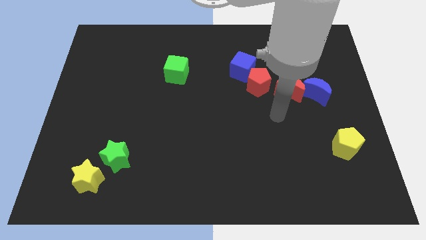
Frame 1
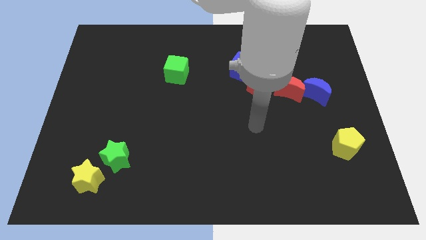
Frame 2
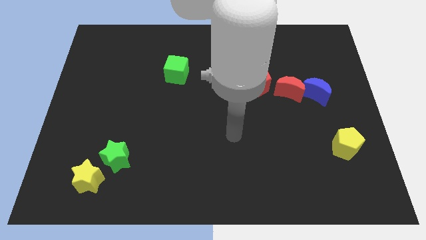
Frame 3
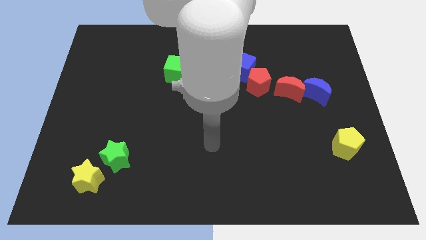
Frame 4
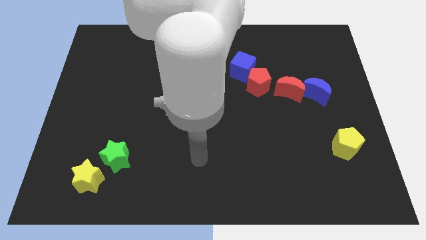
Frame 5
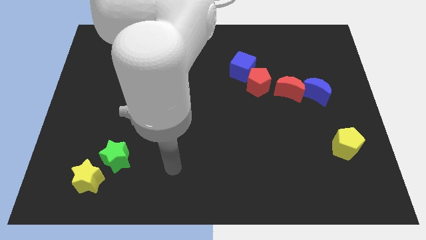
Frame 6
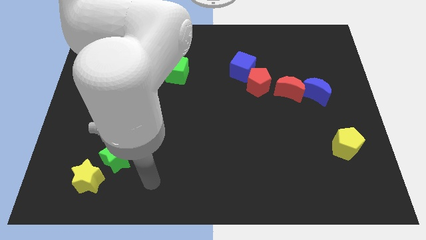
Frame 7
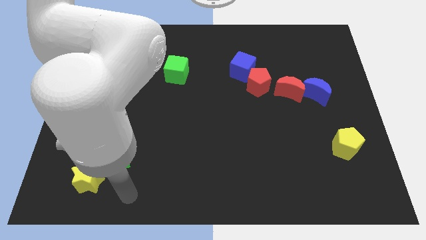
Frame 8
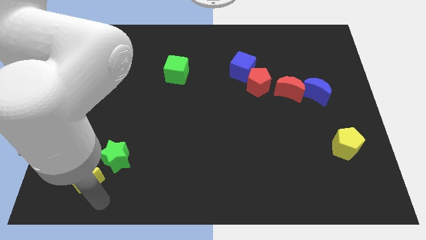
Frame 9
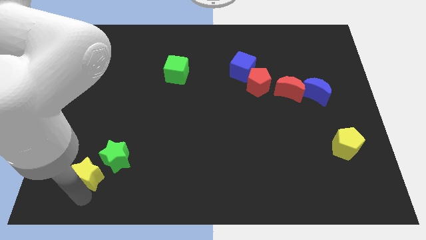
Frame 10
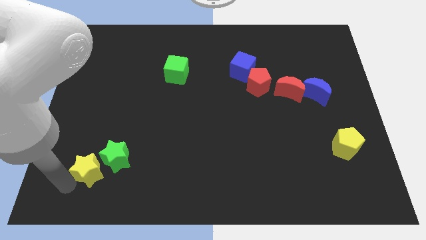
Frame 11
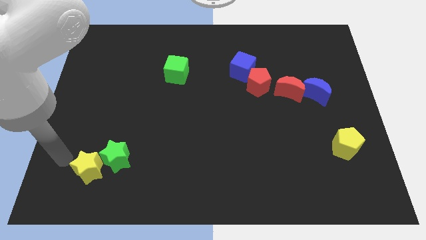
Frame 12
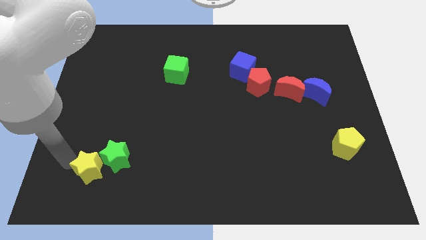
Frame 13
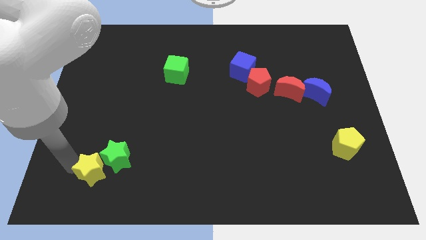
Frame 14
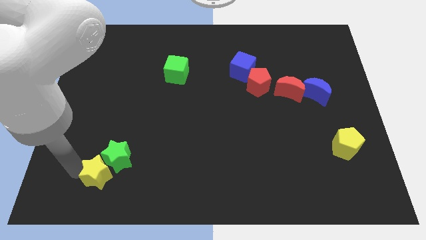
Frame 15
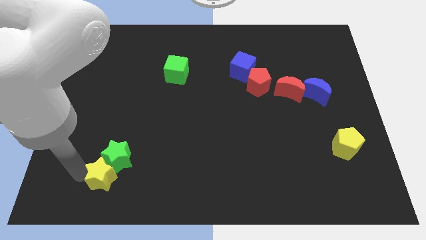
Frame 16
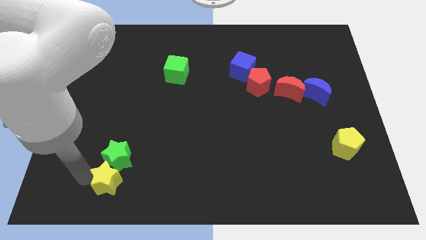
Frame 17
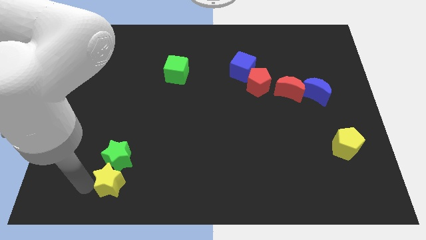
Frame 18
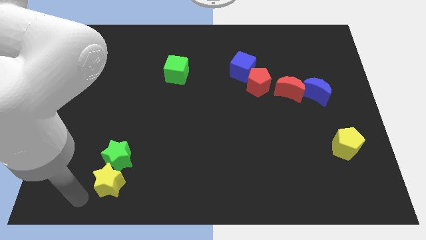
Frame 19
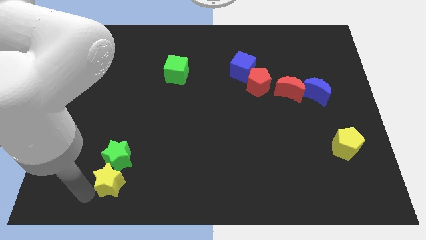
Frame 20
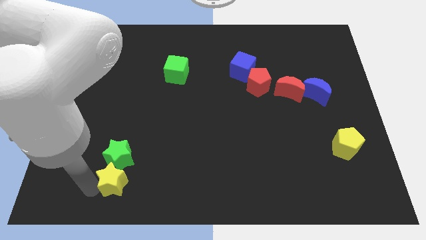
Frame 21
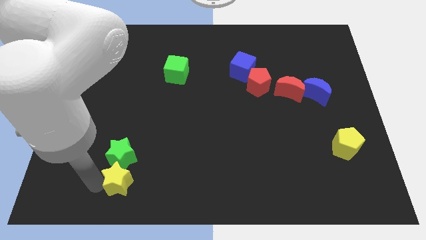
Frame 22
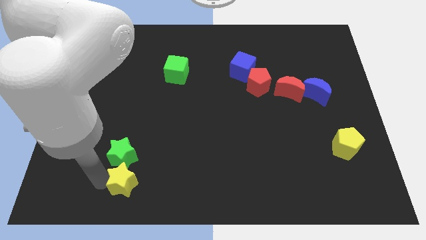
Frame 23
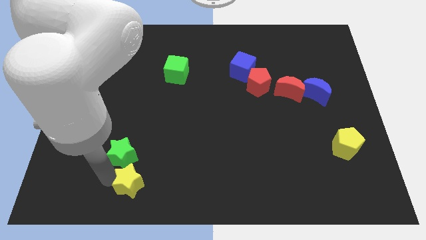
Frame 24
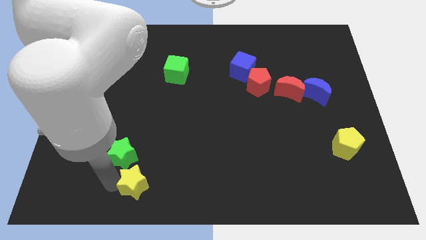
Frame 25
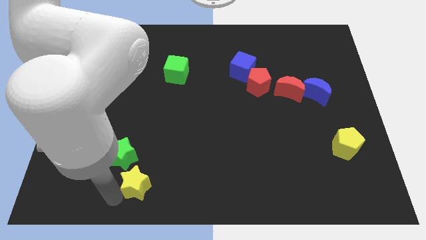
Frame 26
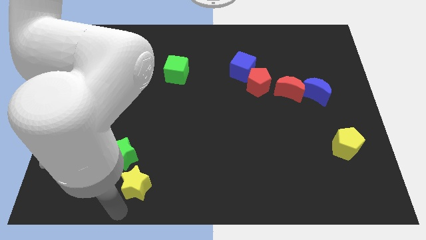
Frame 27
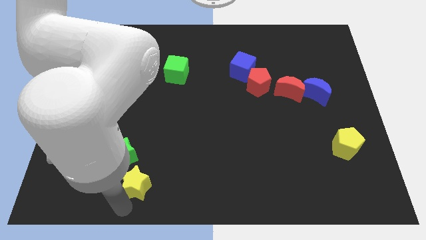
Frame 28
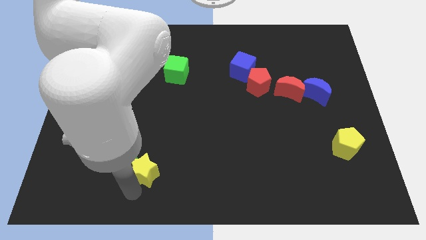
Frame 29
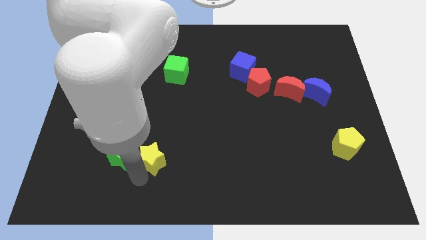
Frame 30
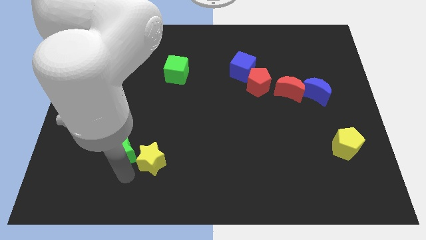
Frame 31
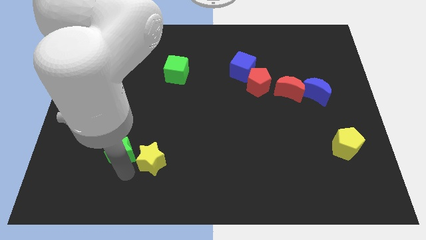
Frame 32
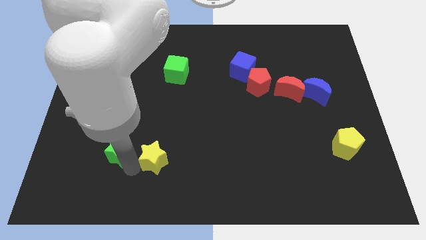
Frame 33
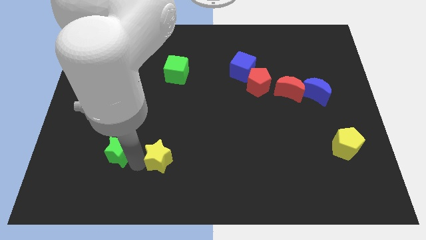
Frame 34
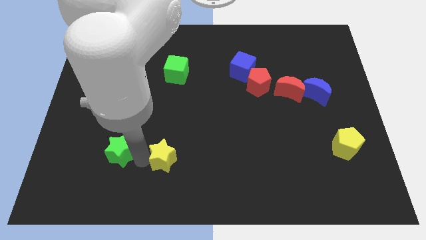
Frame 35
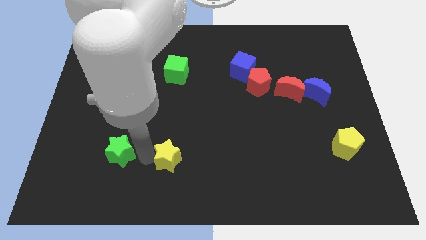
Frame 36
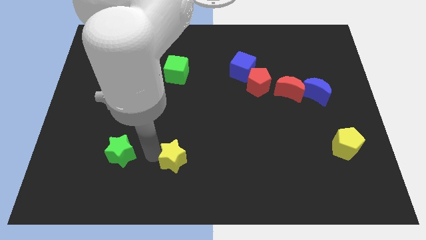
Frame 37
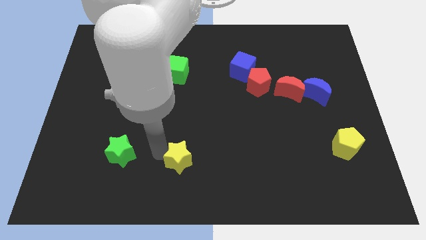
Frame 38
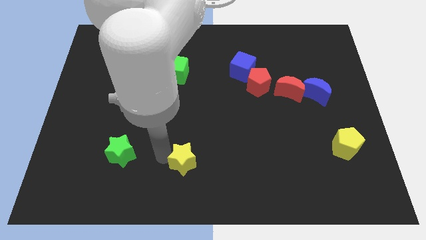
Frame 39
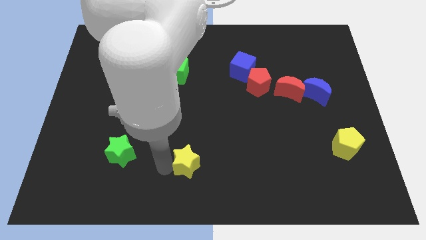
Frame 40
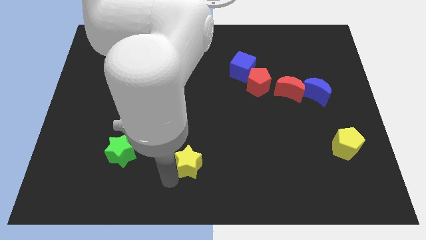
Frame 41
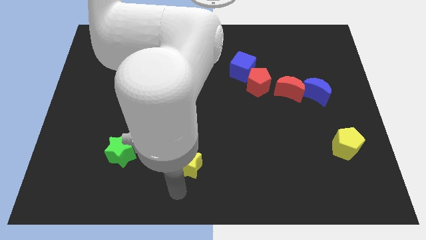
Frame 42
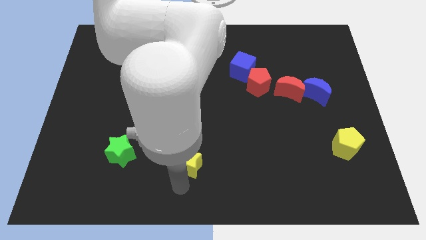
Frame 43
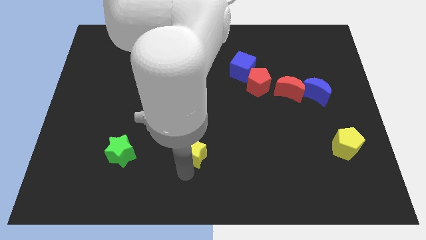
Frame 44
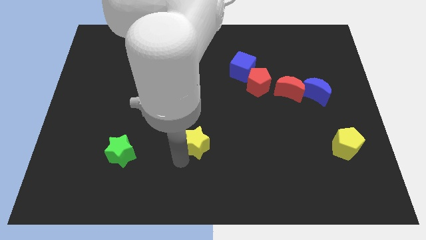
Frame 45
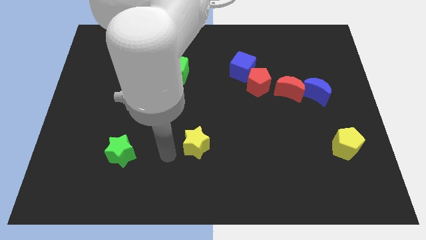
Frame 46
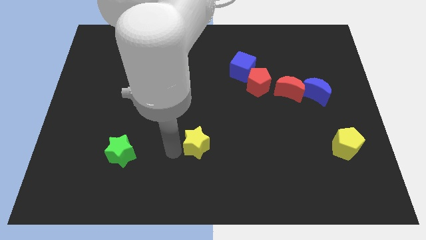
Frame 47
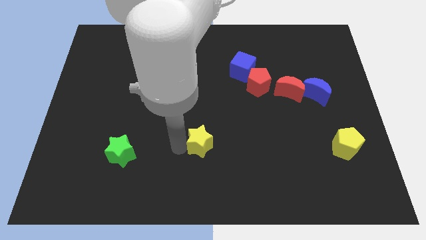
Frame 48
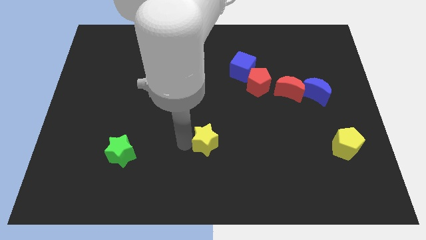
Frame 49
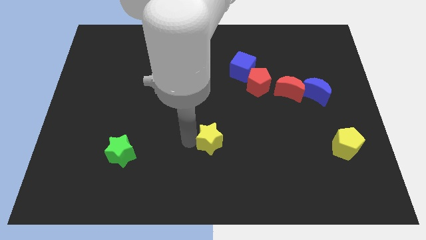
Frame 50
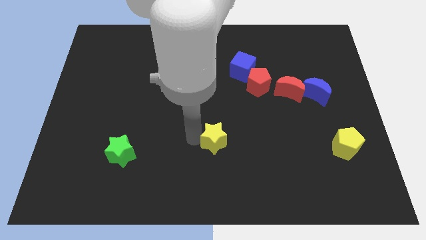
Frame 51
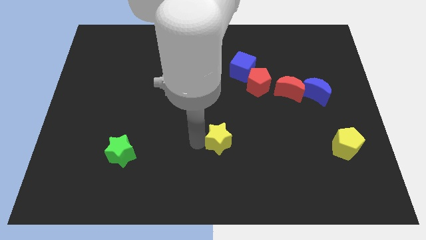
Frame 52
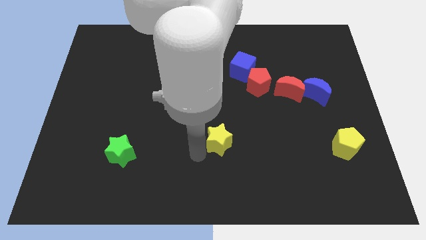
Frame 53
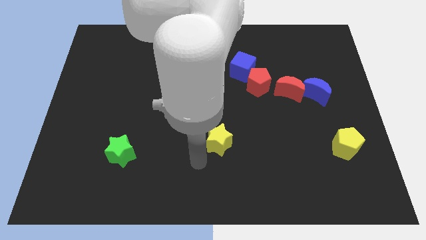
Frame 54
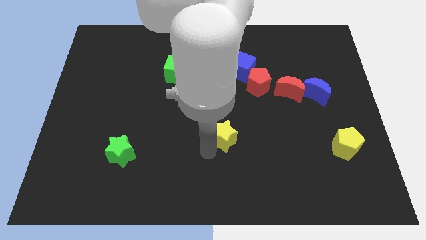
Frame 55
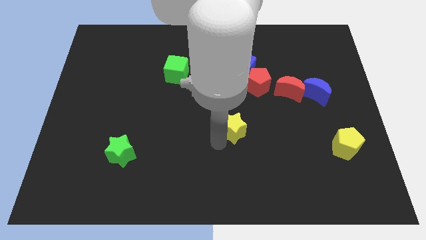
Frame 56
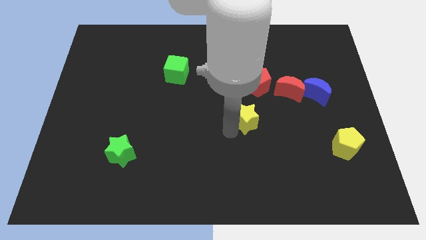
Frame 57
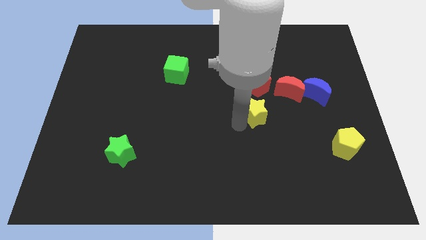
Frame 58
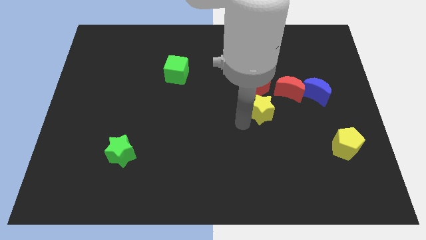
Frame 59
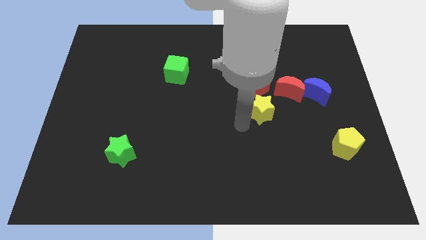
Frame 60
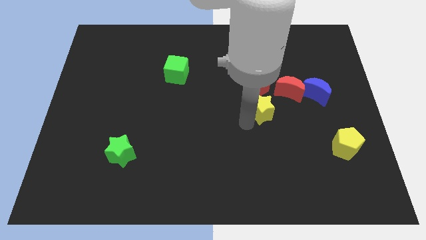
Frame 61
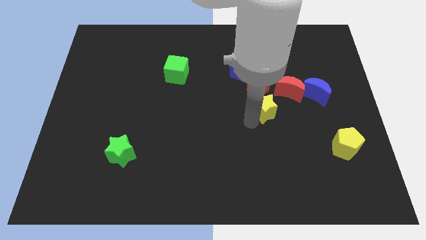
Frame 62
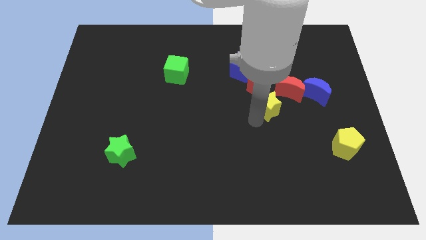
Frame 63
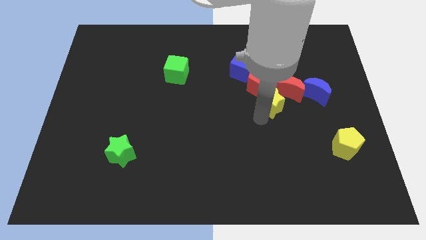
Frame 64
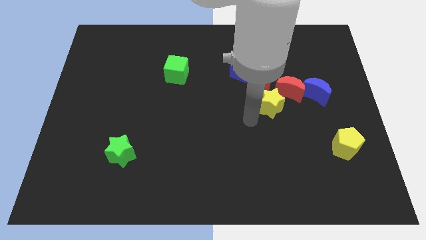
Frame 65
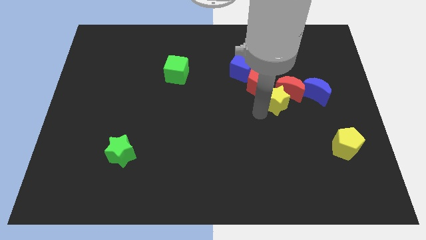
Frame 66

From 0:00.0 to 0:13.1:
slide the yellow star close to the red moon
